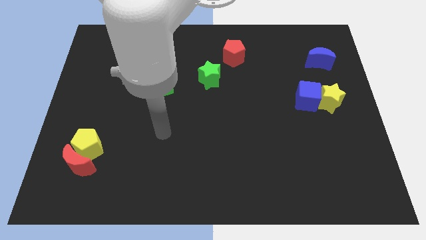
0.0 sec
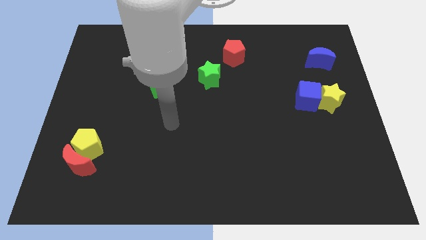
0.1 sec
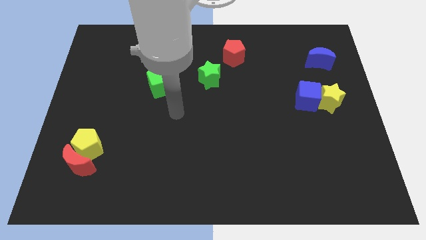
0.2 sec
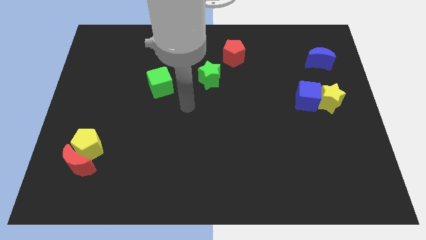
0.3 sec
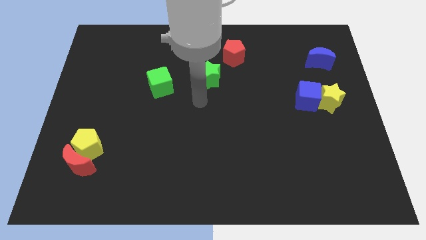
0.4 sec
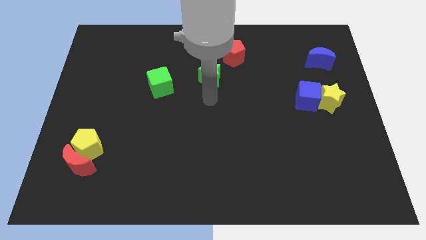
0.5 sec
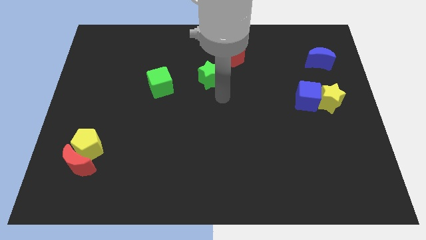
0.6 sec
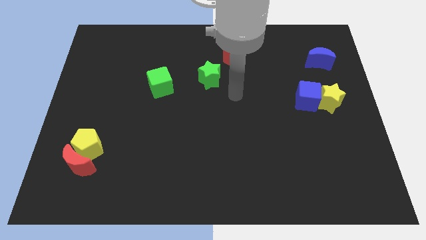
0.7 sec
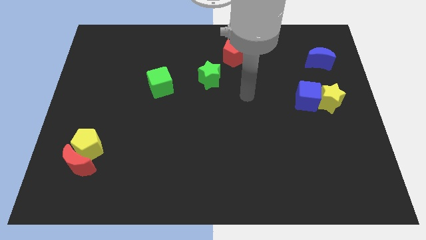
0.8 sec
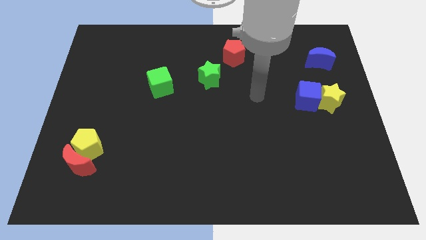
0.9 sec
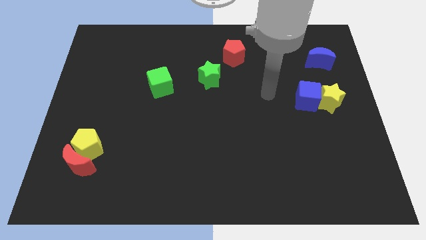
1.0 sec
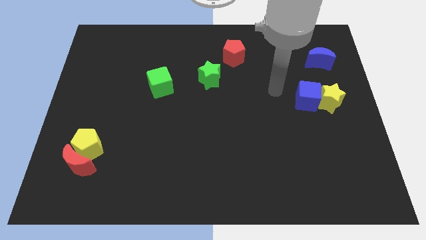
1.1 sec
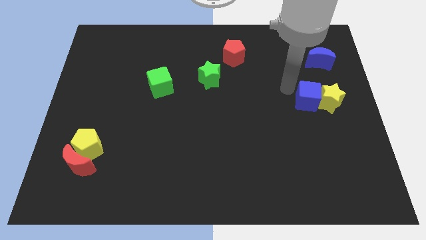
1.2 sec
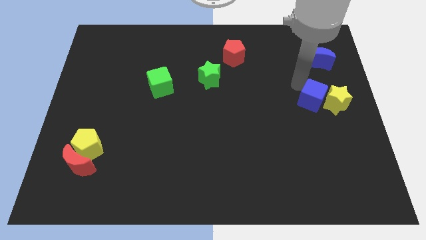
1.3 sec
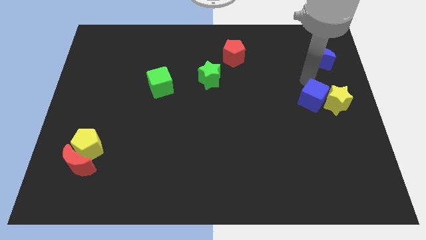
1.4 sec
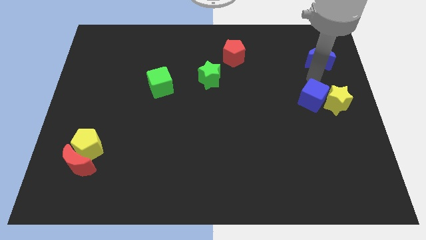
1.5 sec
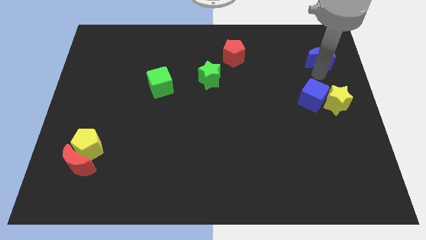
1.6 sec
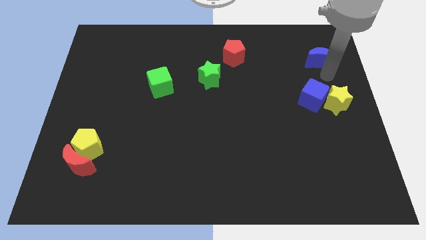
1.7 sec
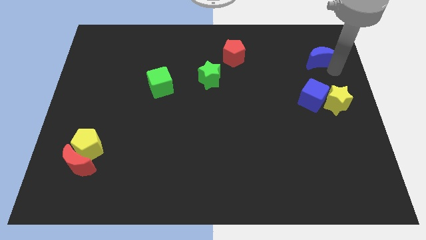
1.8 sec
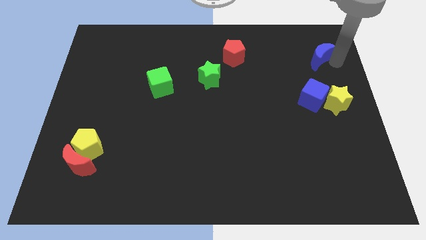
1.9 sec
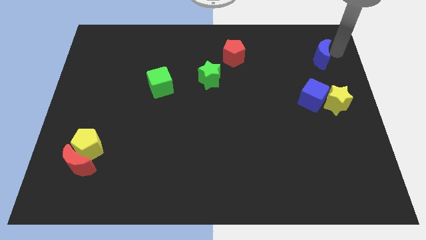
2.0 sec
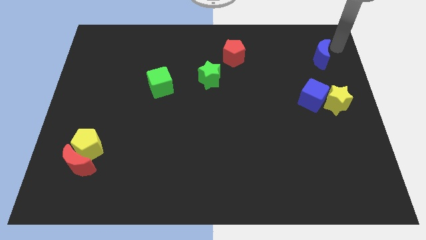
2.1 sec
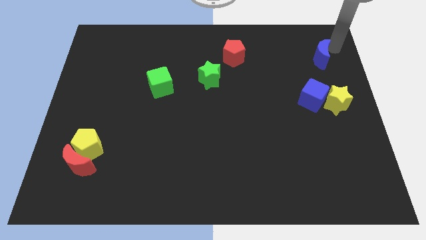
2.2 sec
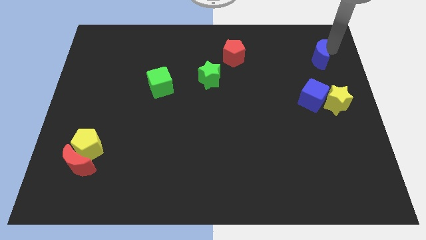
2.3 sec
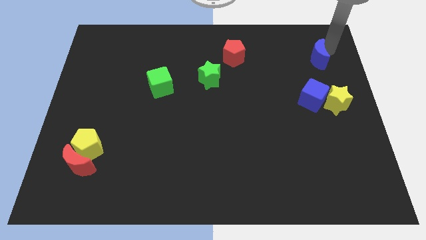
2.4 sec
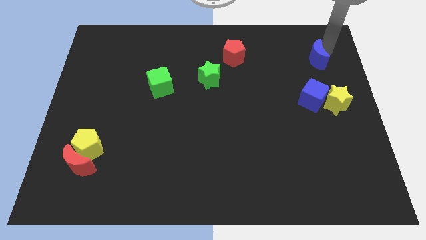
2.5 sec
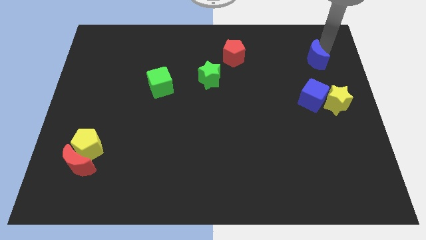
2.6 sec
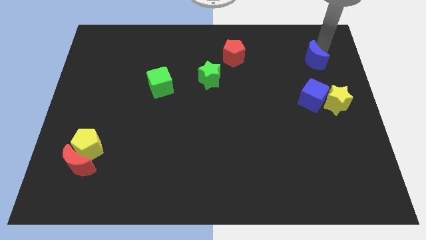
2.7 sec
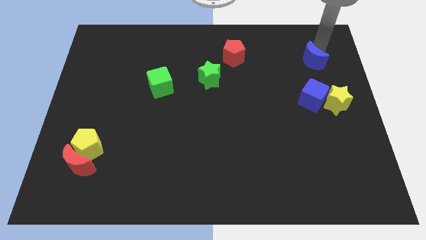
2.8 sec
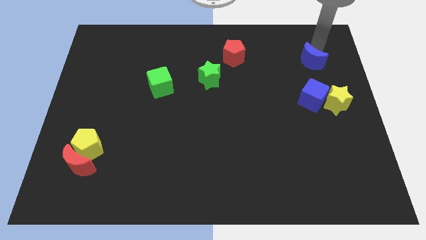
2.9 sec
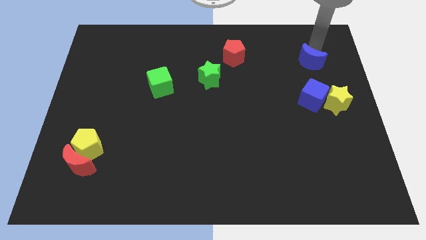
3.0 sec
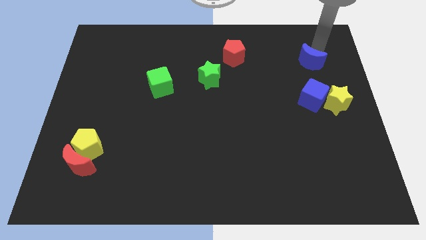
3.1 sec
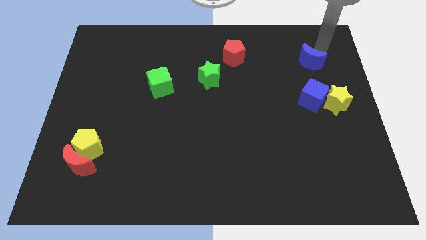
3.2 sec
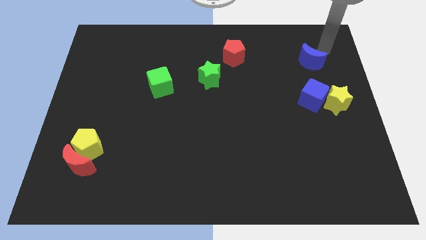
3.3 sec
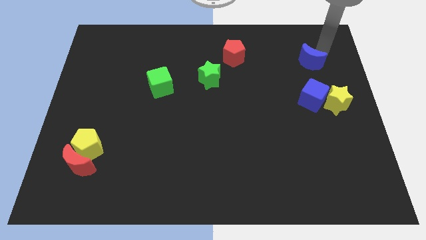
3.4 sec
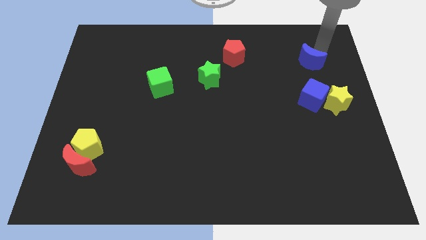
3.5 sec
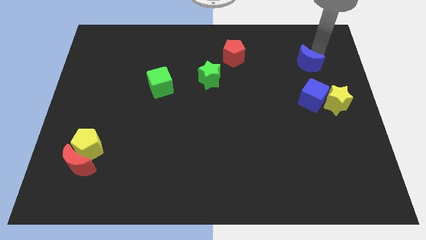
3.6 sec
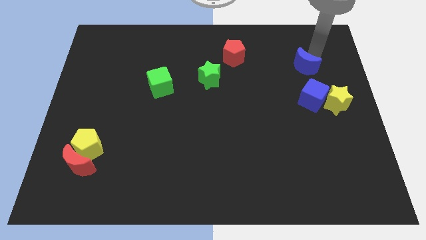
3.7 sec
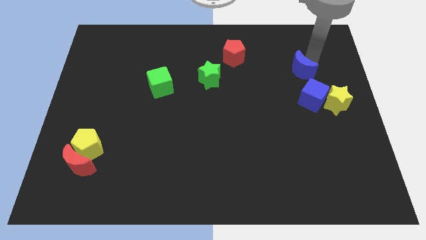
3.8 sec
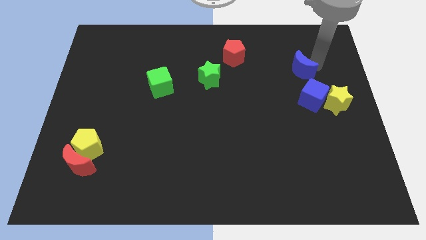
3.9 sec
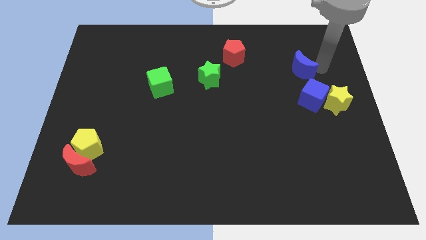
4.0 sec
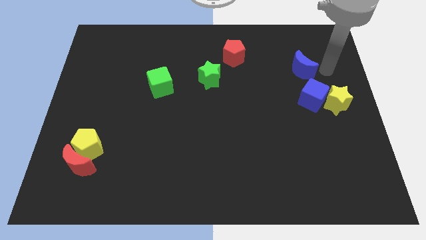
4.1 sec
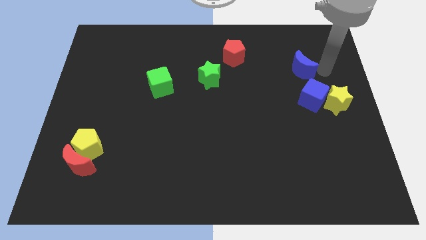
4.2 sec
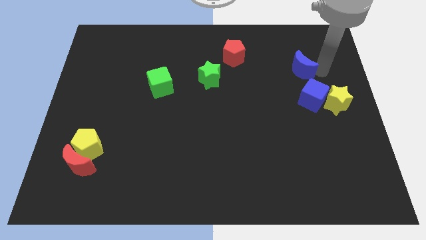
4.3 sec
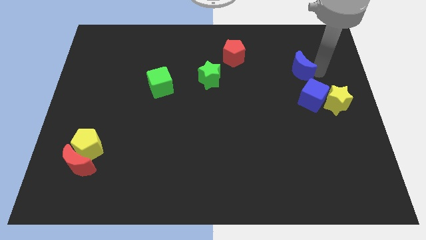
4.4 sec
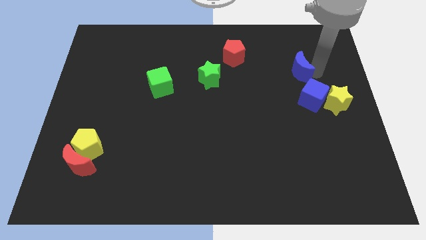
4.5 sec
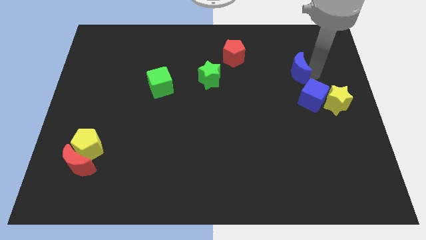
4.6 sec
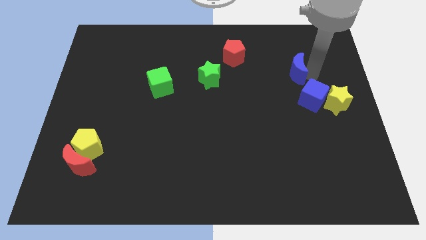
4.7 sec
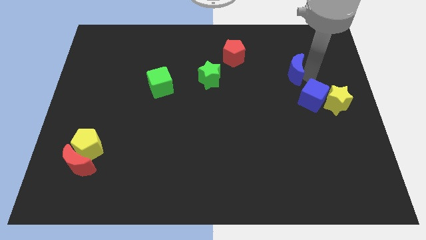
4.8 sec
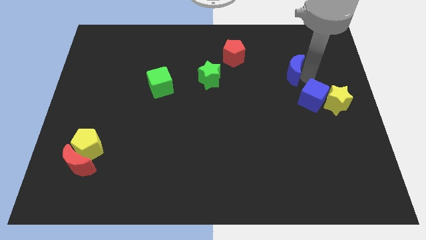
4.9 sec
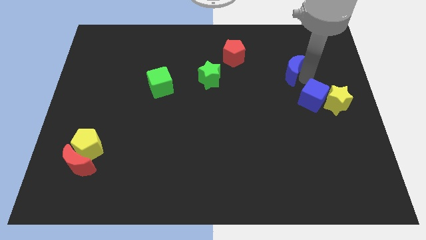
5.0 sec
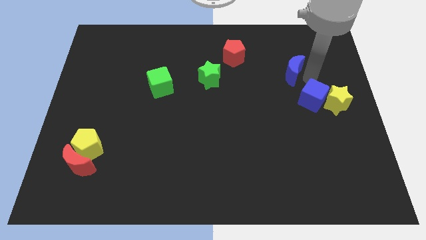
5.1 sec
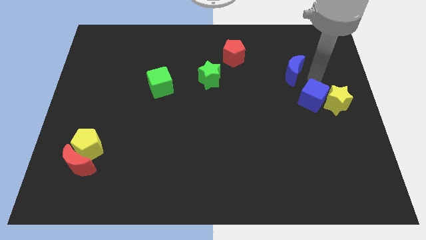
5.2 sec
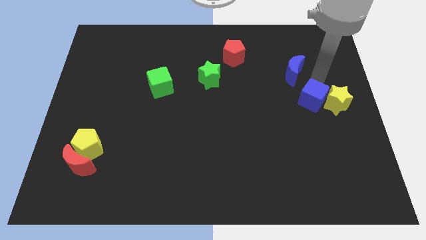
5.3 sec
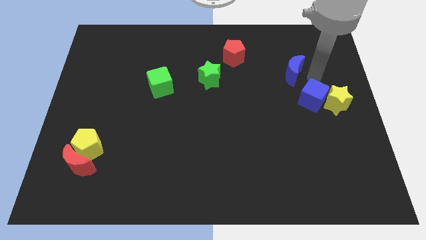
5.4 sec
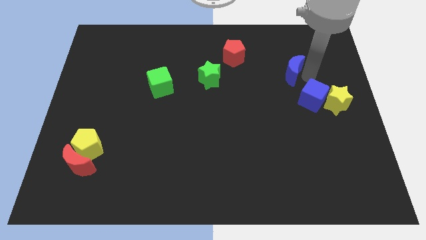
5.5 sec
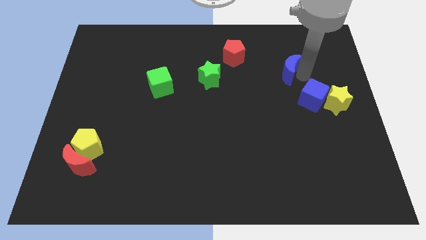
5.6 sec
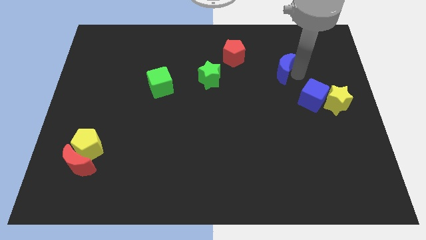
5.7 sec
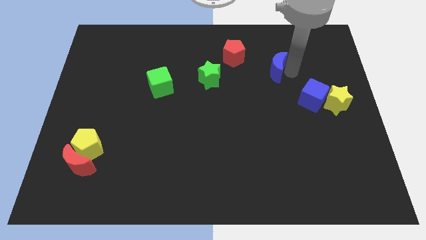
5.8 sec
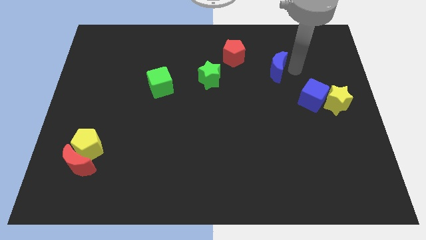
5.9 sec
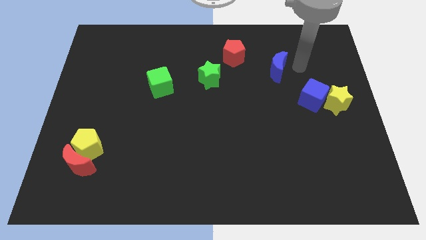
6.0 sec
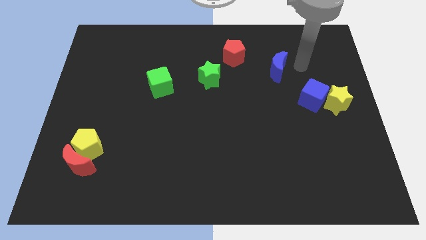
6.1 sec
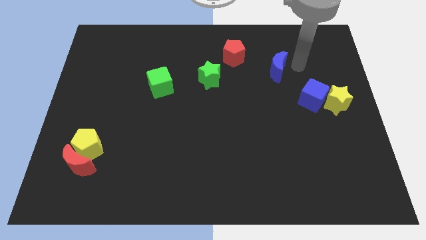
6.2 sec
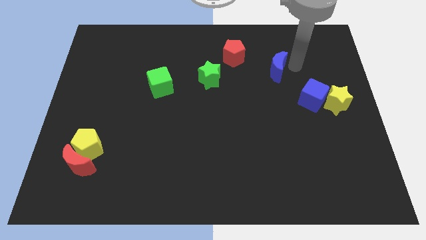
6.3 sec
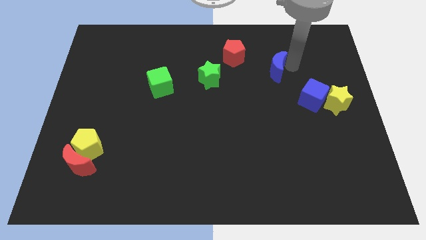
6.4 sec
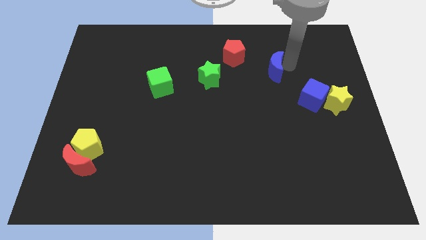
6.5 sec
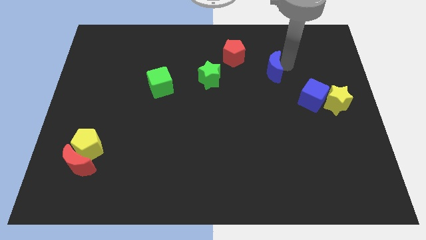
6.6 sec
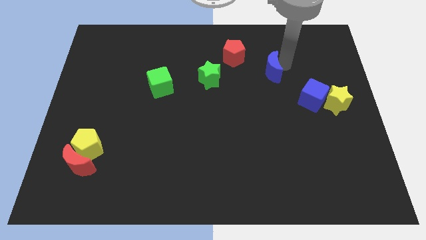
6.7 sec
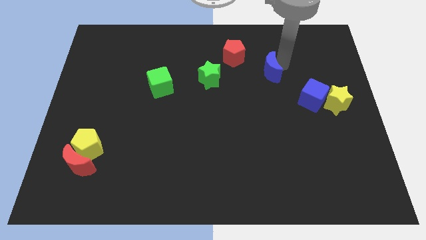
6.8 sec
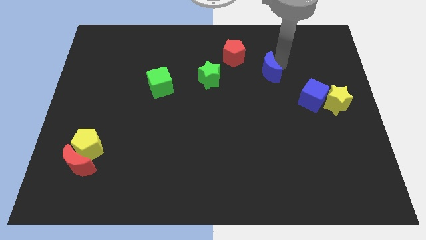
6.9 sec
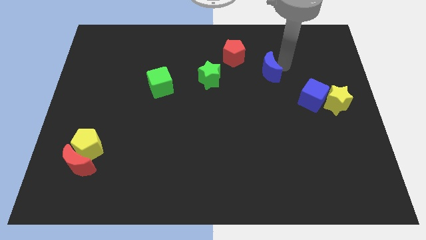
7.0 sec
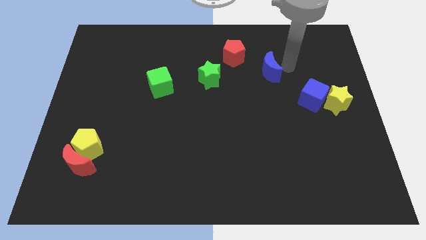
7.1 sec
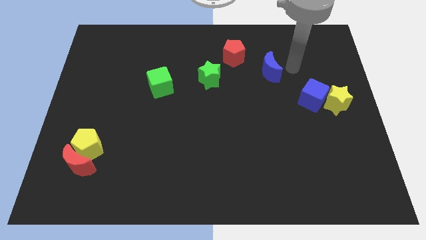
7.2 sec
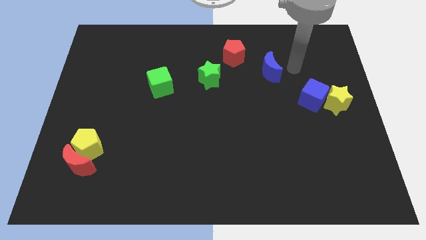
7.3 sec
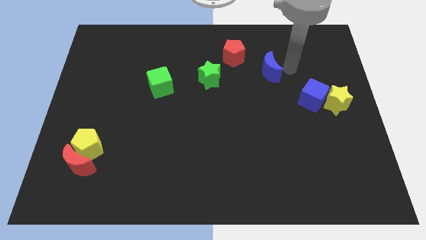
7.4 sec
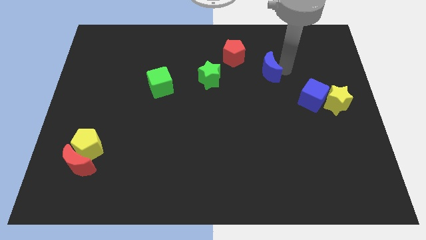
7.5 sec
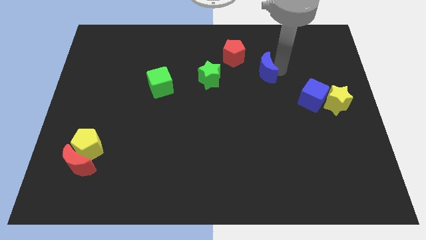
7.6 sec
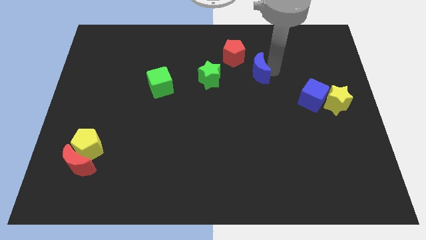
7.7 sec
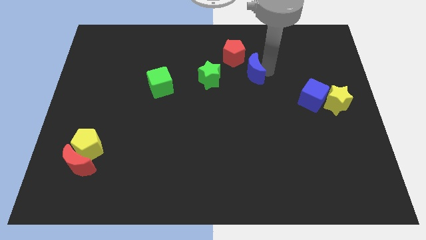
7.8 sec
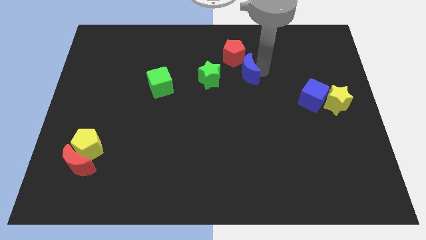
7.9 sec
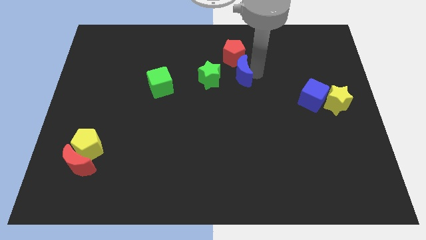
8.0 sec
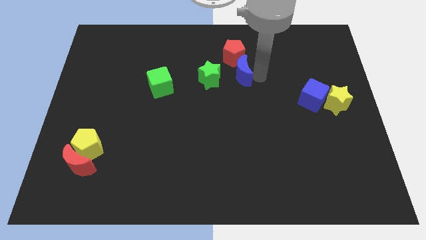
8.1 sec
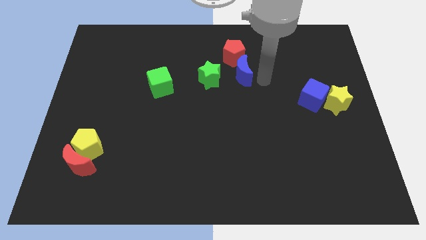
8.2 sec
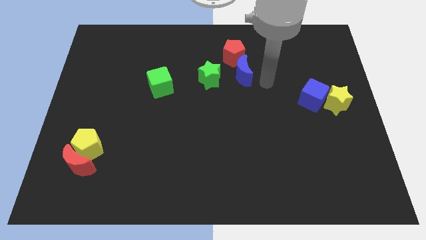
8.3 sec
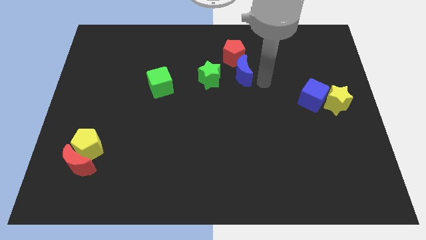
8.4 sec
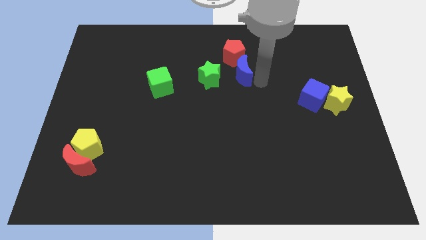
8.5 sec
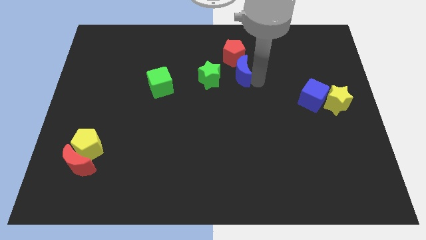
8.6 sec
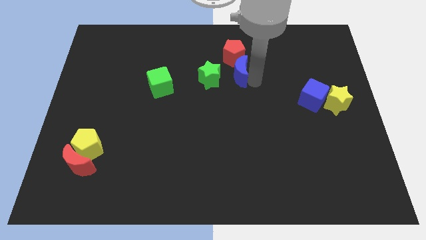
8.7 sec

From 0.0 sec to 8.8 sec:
push the blue moon to the left
